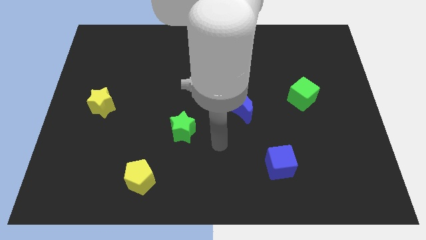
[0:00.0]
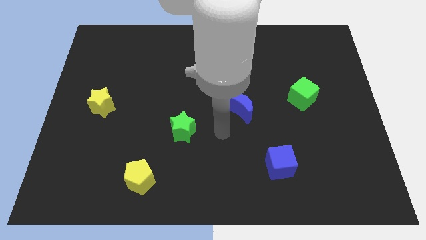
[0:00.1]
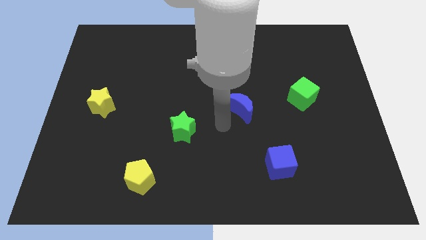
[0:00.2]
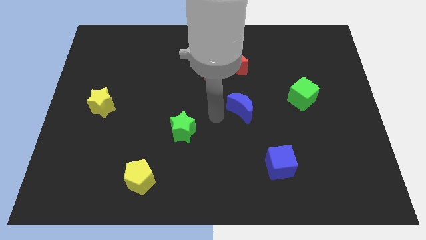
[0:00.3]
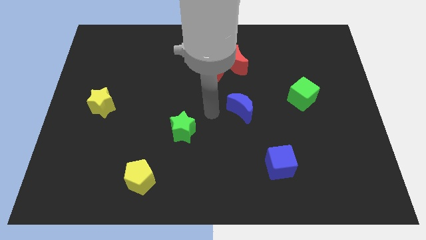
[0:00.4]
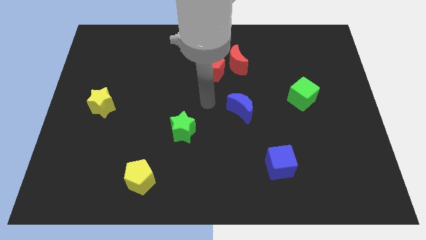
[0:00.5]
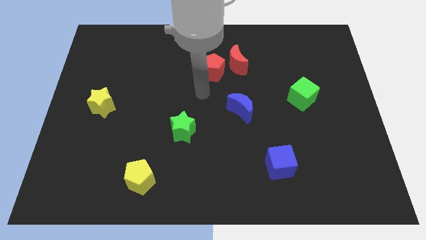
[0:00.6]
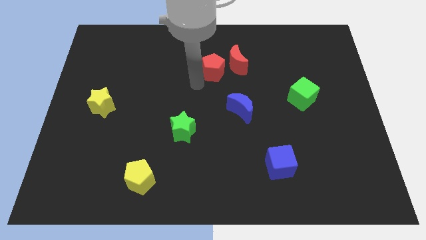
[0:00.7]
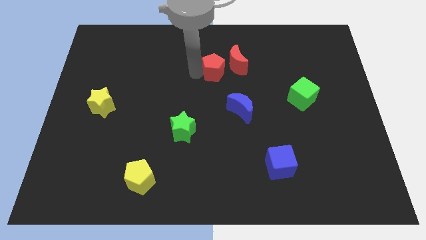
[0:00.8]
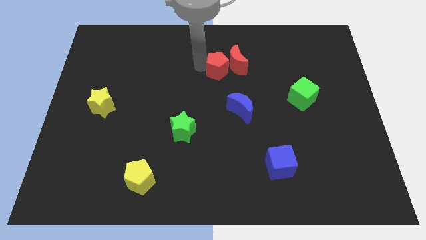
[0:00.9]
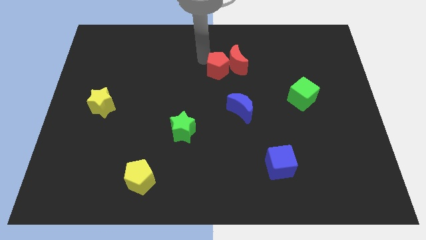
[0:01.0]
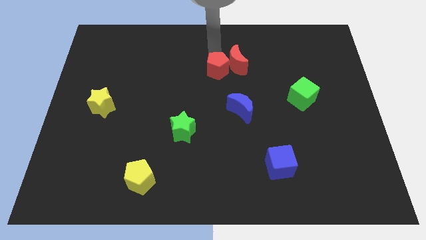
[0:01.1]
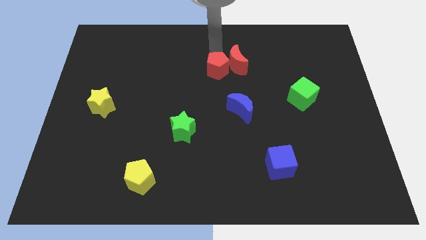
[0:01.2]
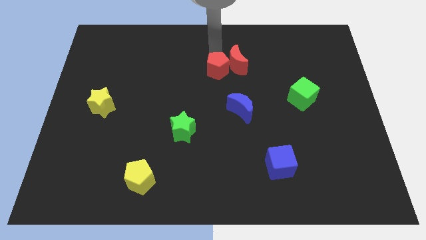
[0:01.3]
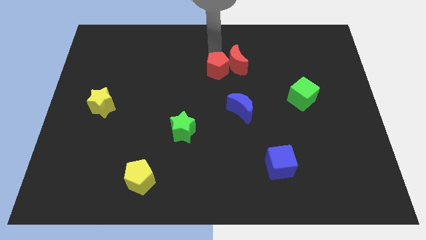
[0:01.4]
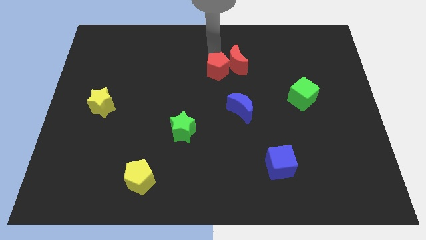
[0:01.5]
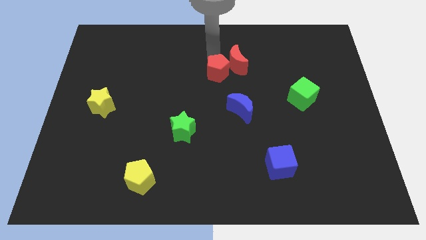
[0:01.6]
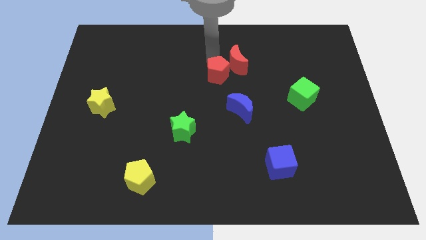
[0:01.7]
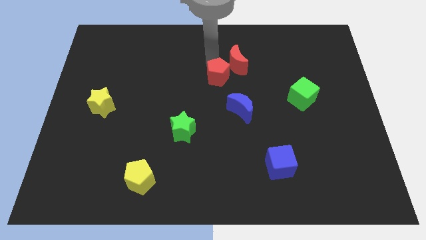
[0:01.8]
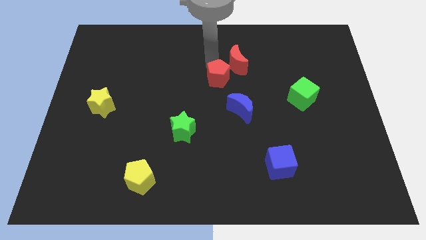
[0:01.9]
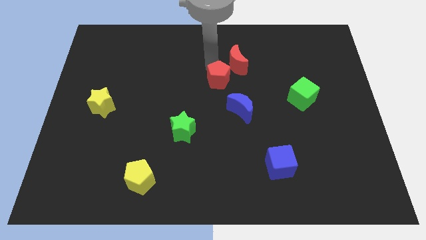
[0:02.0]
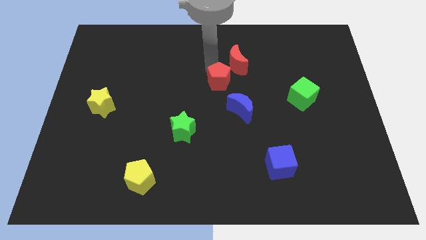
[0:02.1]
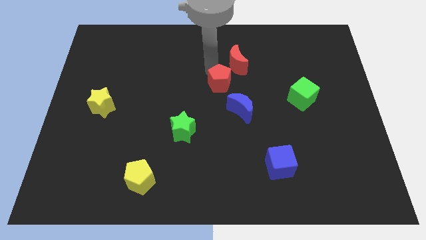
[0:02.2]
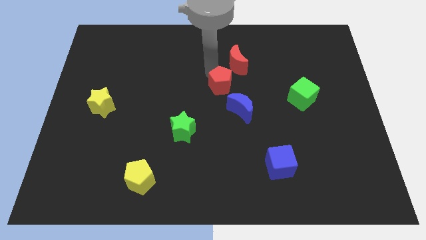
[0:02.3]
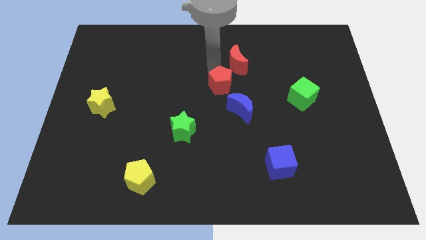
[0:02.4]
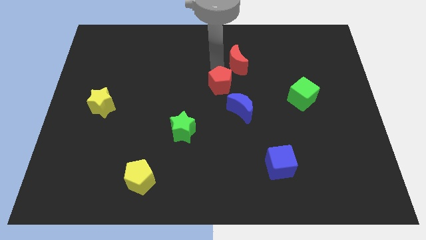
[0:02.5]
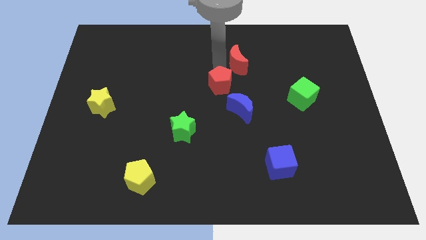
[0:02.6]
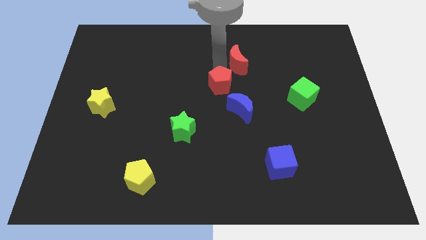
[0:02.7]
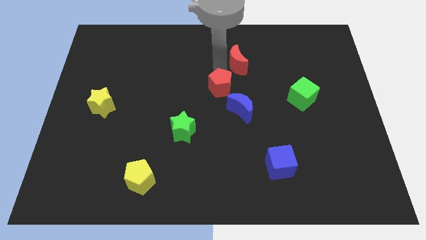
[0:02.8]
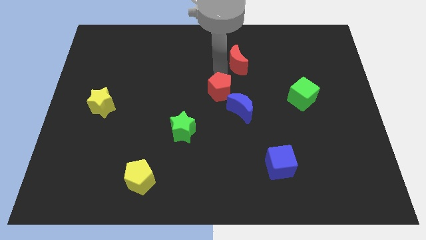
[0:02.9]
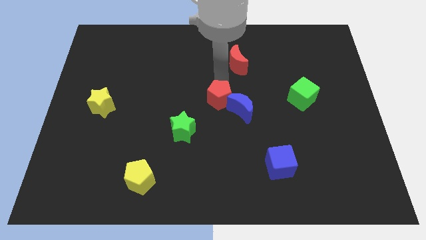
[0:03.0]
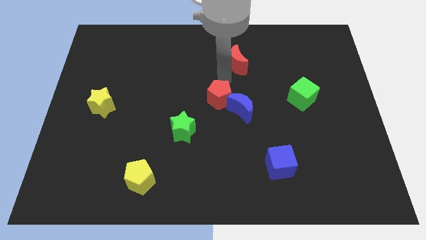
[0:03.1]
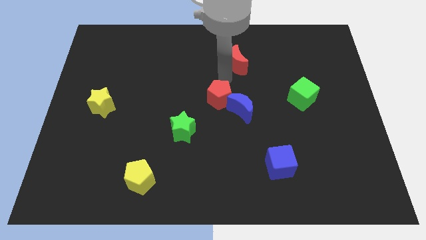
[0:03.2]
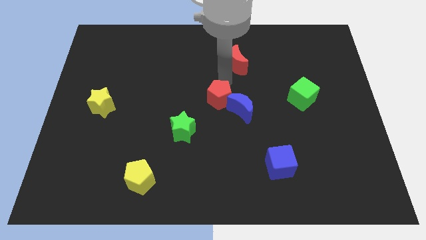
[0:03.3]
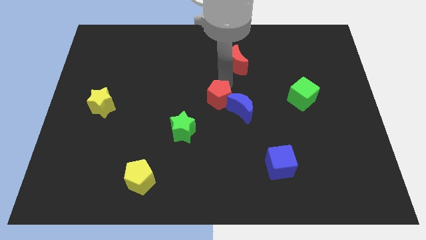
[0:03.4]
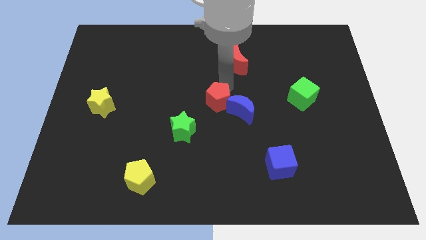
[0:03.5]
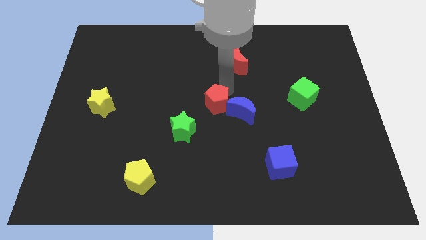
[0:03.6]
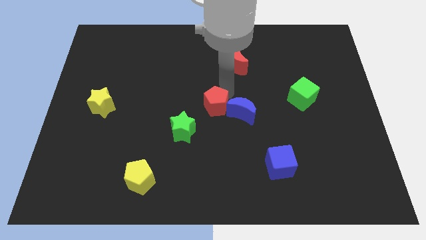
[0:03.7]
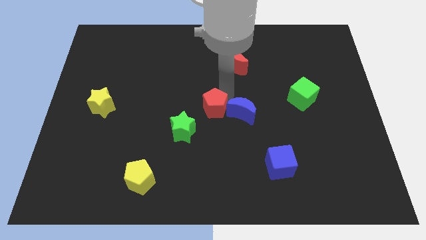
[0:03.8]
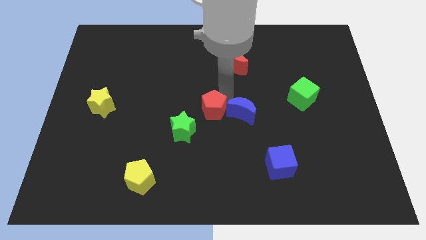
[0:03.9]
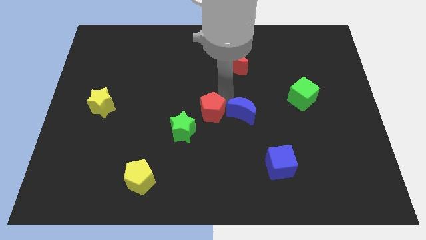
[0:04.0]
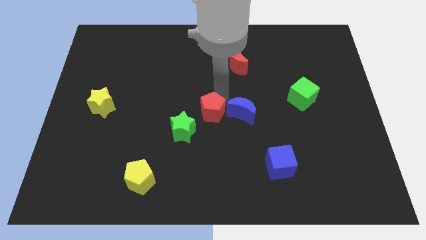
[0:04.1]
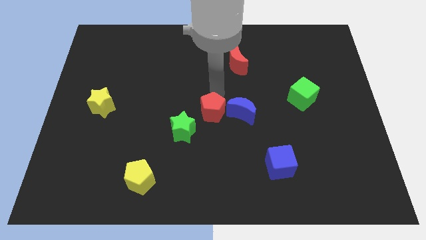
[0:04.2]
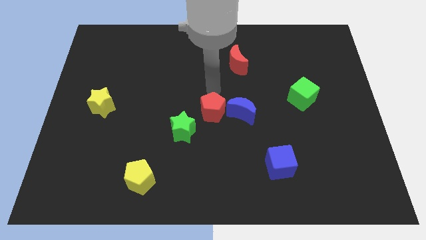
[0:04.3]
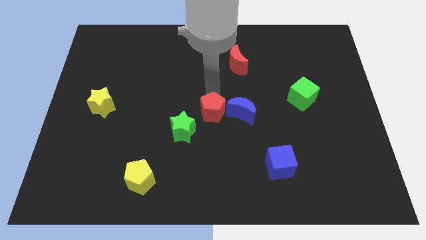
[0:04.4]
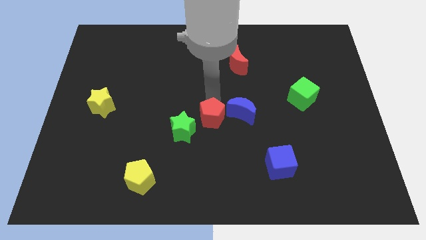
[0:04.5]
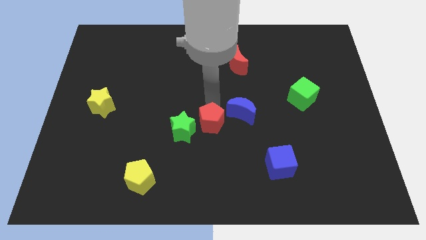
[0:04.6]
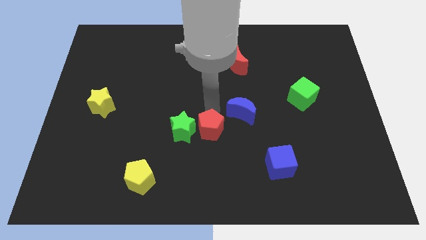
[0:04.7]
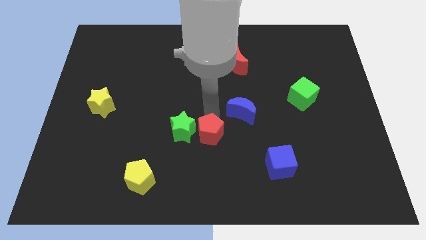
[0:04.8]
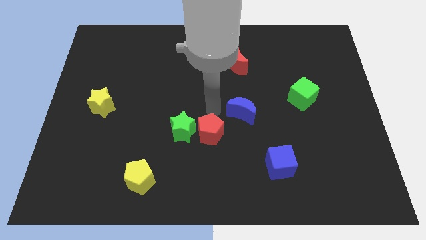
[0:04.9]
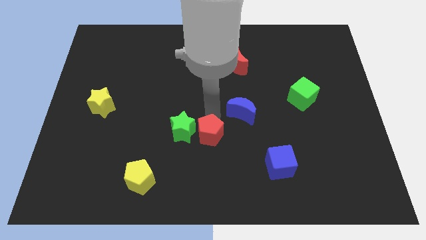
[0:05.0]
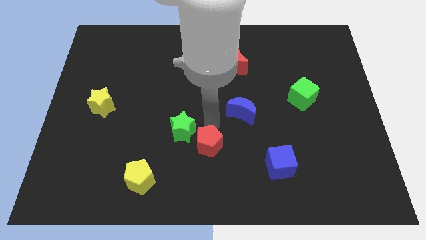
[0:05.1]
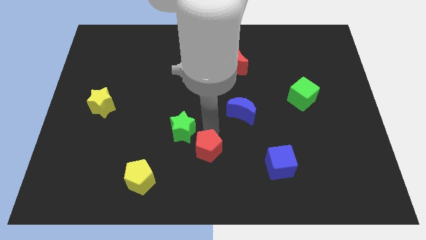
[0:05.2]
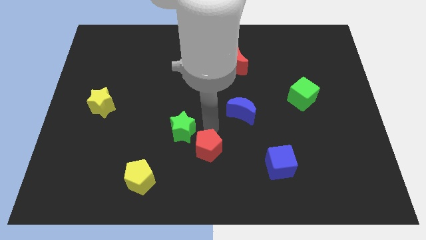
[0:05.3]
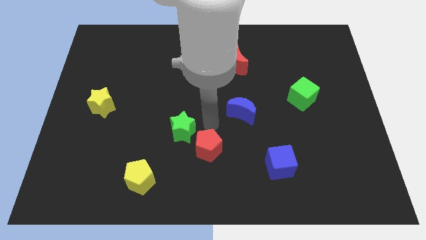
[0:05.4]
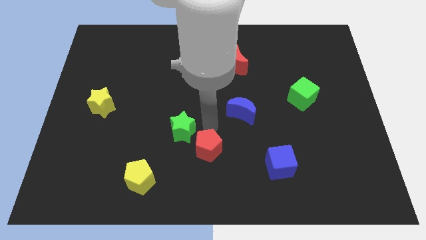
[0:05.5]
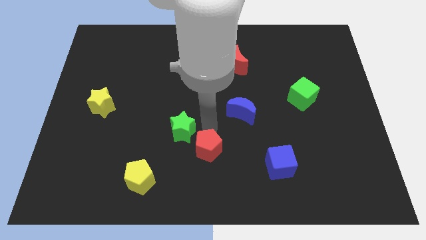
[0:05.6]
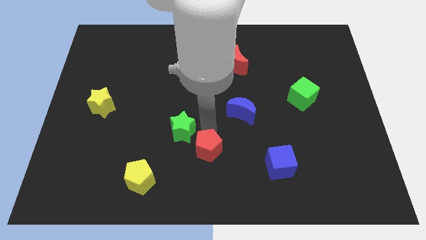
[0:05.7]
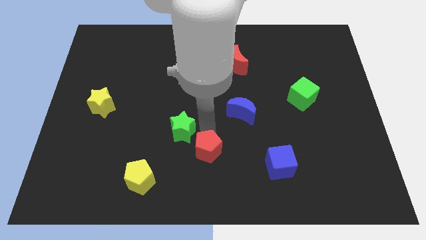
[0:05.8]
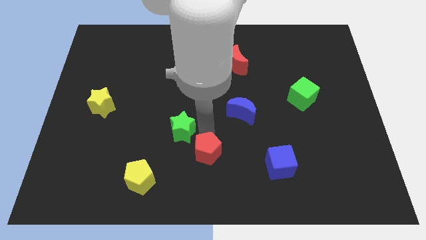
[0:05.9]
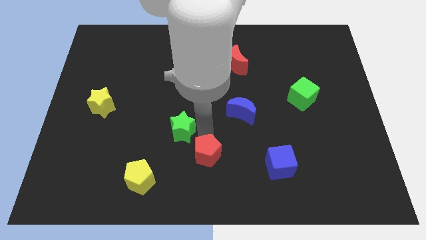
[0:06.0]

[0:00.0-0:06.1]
push the red pentagon to the bottom side
